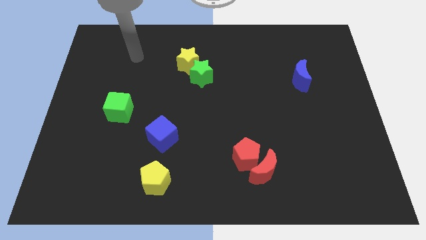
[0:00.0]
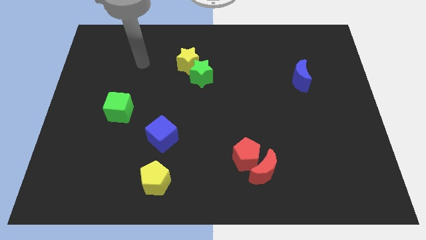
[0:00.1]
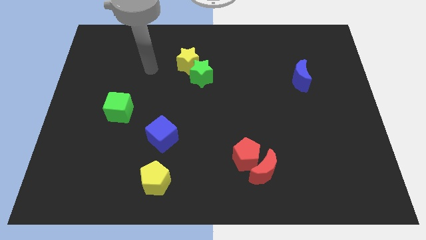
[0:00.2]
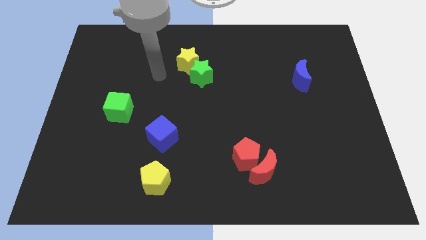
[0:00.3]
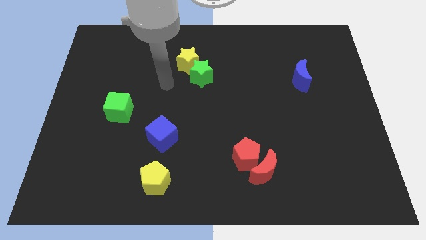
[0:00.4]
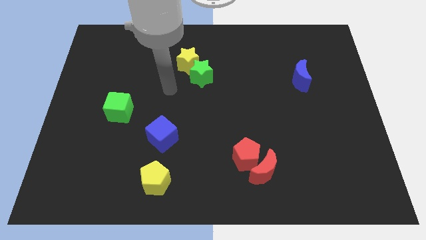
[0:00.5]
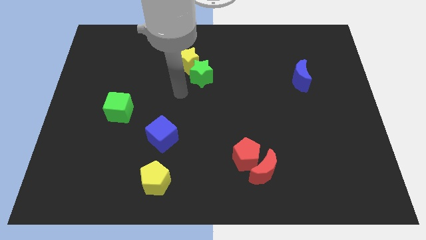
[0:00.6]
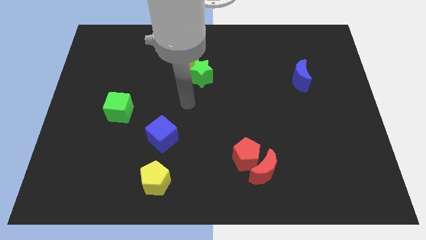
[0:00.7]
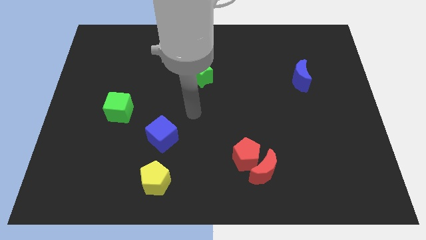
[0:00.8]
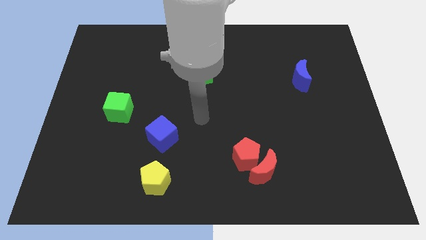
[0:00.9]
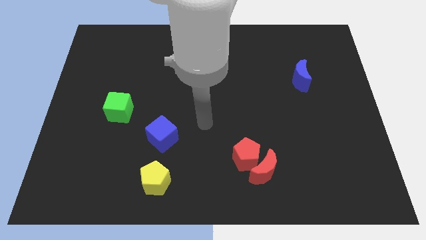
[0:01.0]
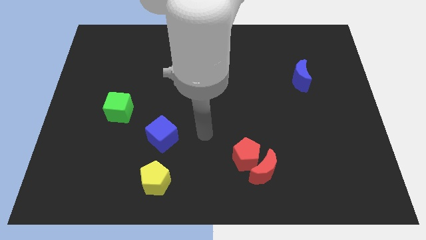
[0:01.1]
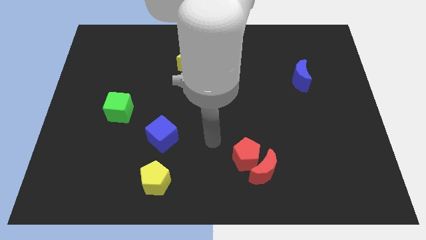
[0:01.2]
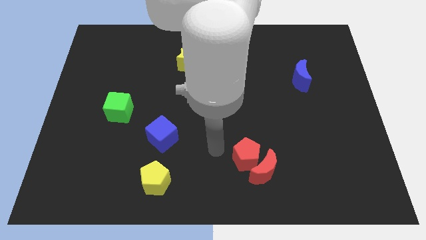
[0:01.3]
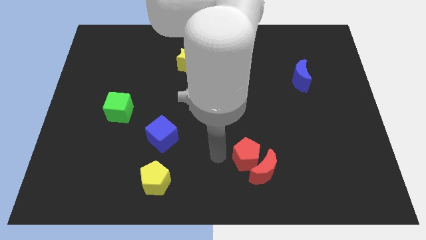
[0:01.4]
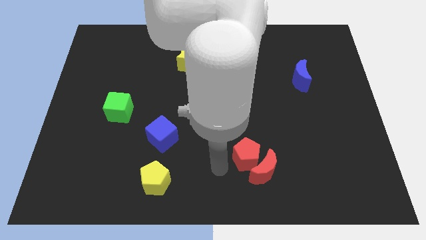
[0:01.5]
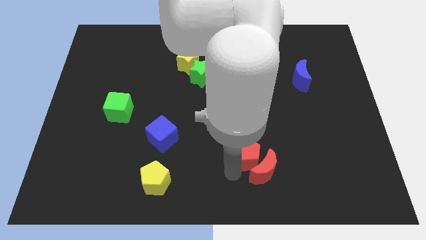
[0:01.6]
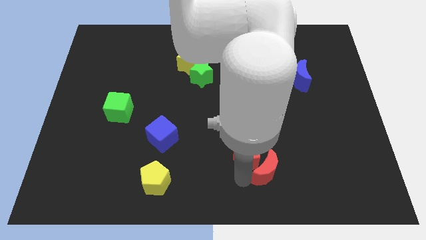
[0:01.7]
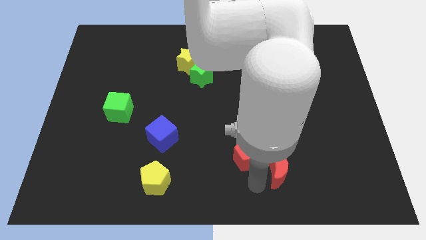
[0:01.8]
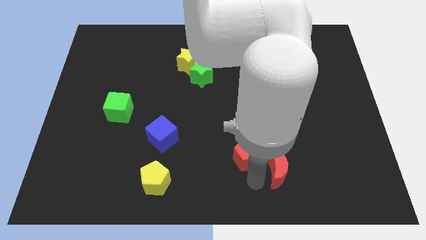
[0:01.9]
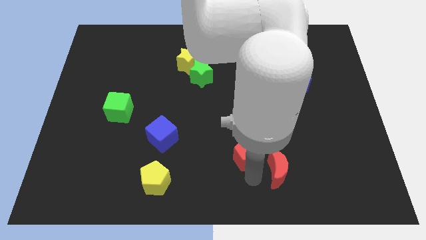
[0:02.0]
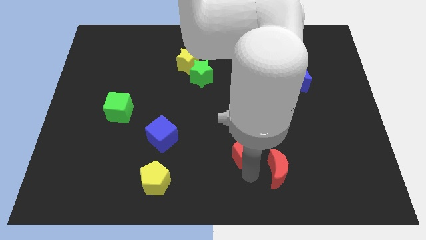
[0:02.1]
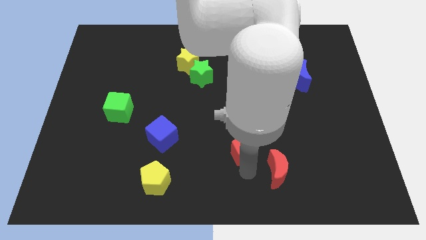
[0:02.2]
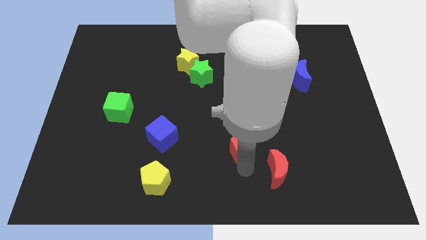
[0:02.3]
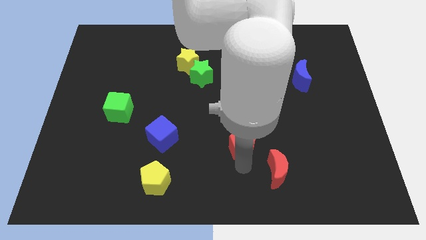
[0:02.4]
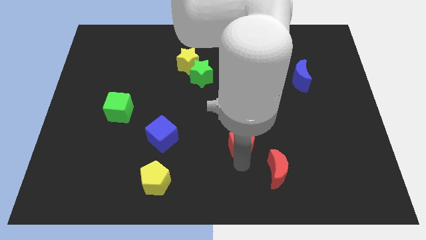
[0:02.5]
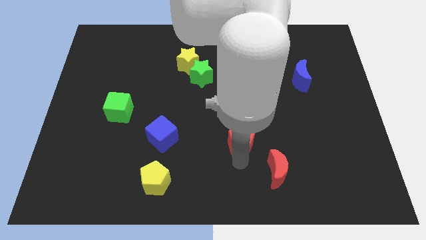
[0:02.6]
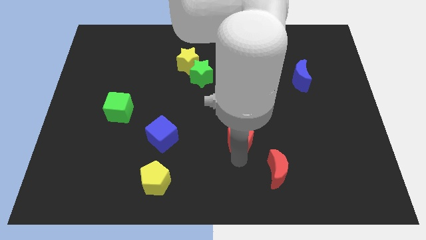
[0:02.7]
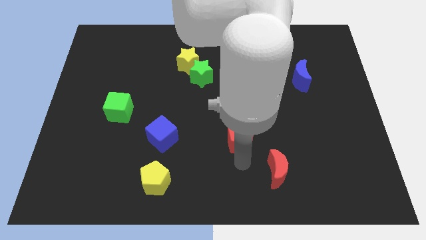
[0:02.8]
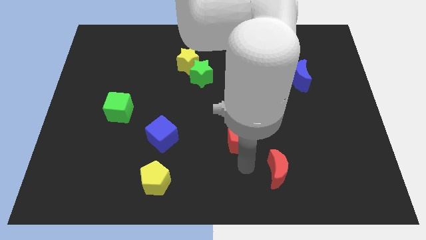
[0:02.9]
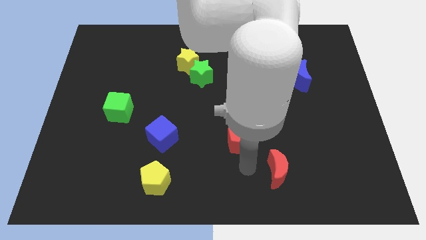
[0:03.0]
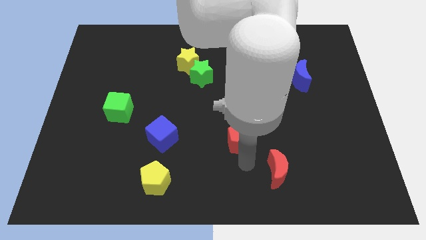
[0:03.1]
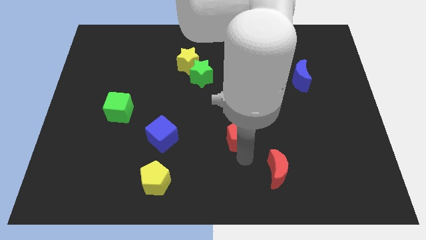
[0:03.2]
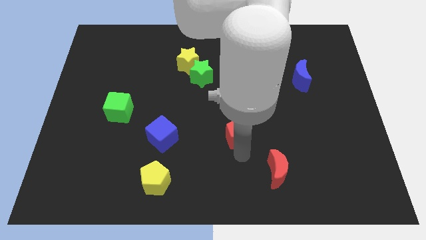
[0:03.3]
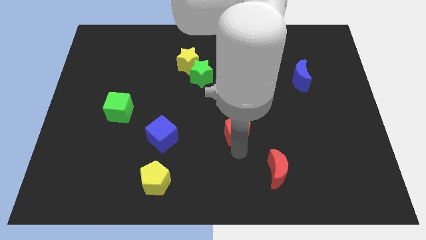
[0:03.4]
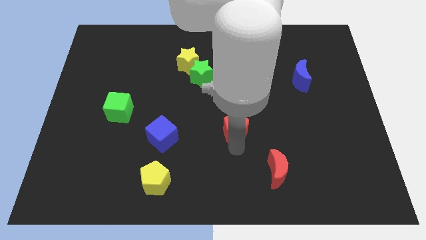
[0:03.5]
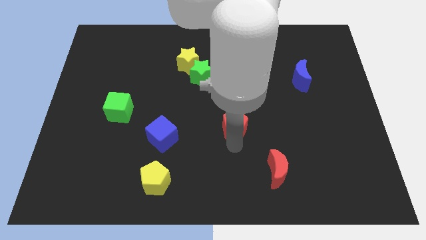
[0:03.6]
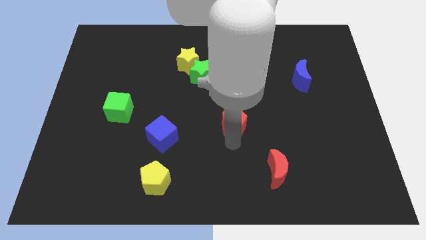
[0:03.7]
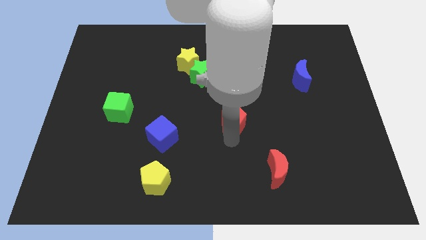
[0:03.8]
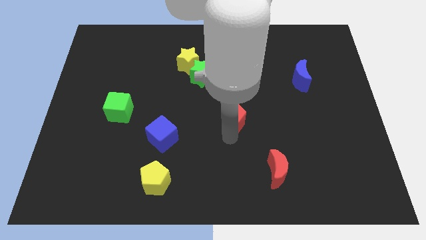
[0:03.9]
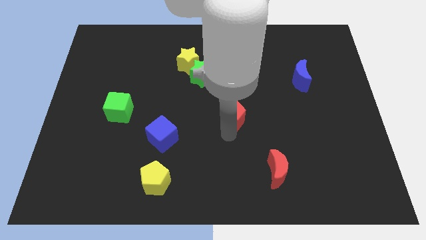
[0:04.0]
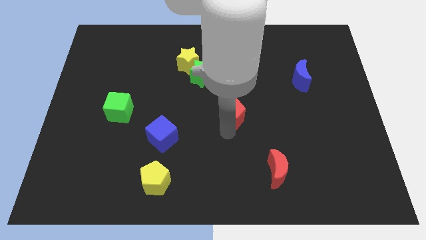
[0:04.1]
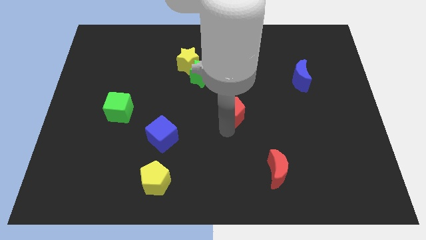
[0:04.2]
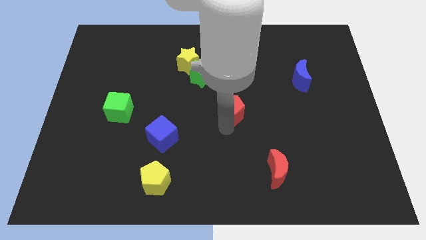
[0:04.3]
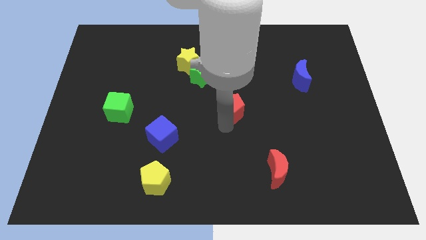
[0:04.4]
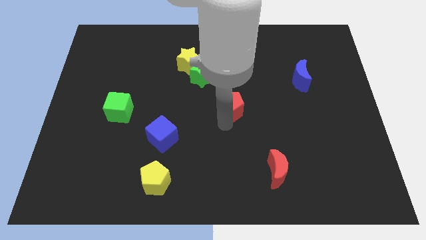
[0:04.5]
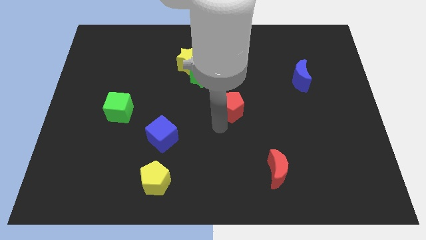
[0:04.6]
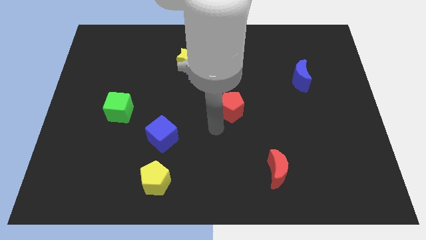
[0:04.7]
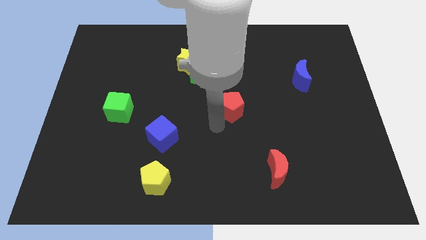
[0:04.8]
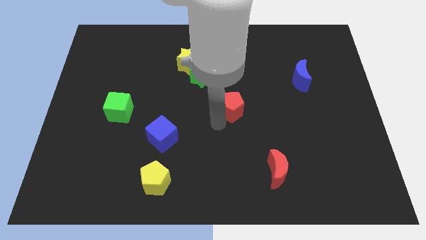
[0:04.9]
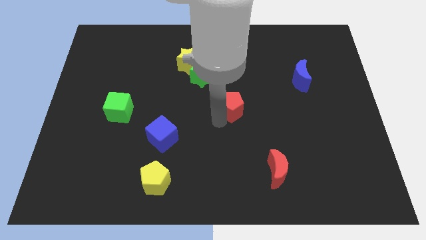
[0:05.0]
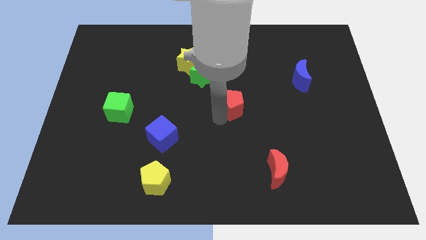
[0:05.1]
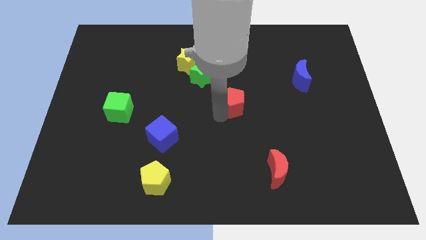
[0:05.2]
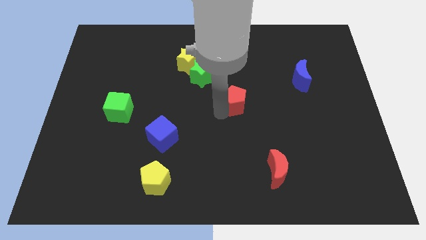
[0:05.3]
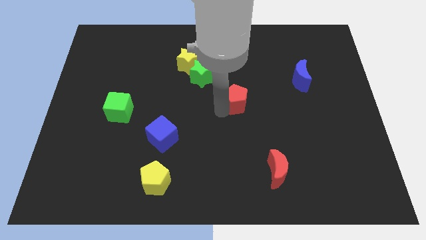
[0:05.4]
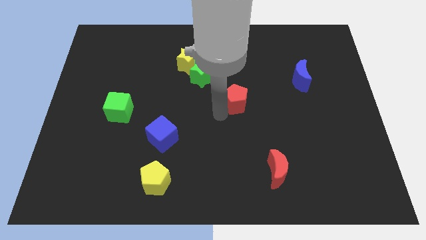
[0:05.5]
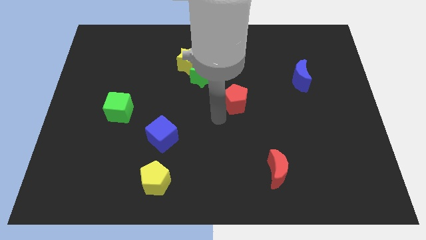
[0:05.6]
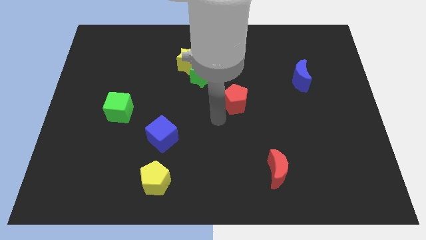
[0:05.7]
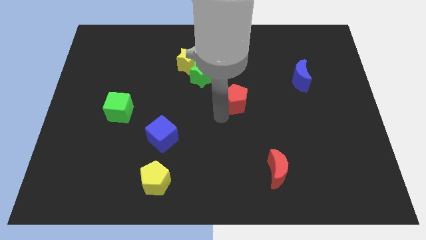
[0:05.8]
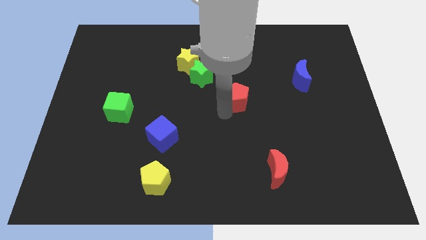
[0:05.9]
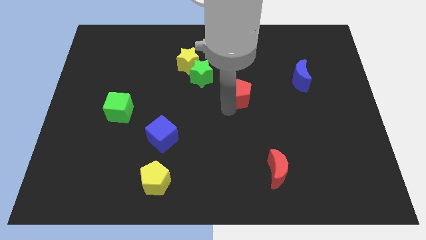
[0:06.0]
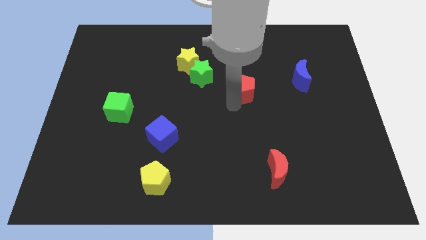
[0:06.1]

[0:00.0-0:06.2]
put the red pentagon just right of the green star

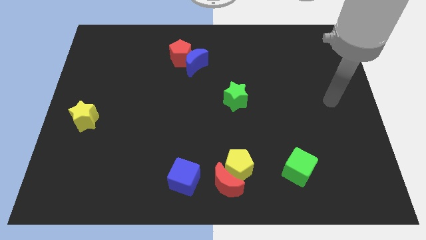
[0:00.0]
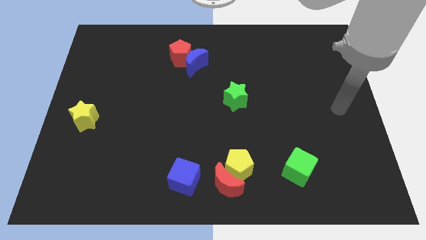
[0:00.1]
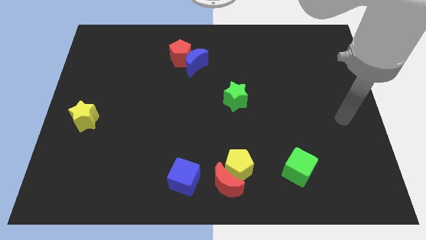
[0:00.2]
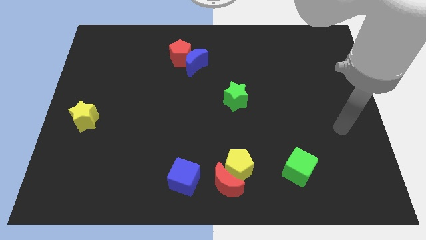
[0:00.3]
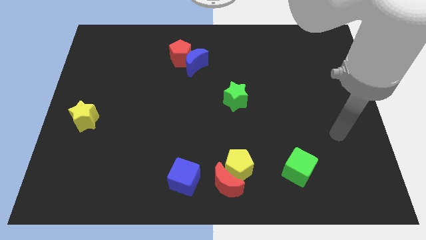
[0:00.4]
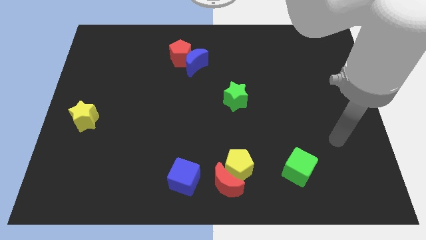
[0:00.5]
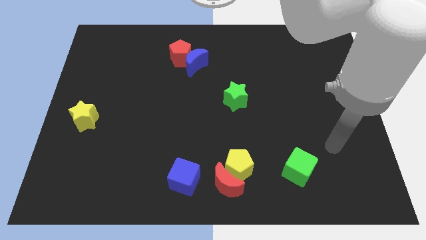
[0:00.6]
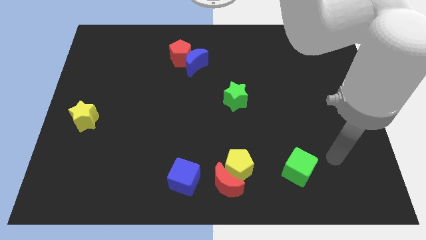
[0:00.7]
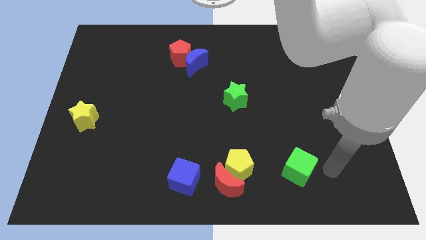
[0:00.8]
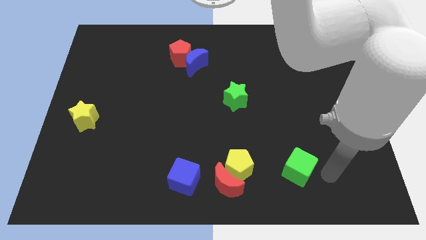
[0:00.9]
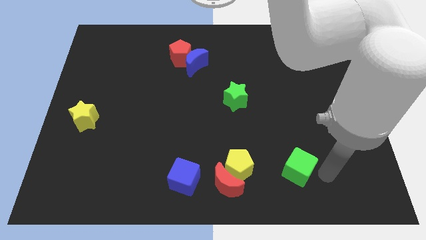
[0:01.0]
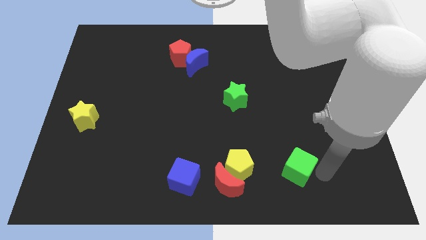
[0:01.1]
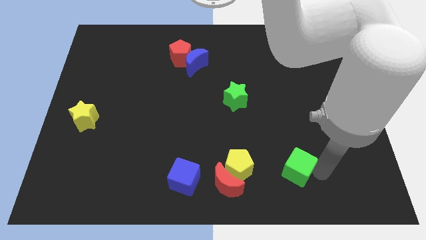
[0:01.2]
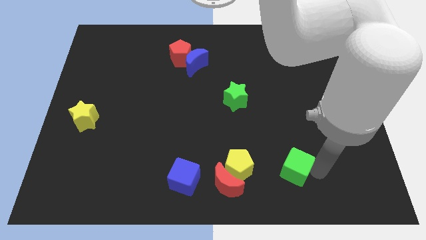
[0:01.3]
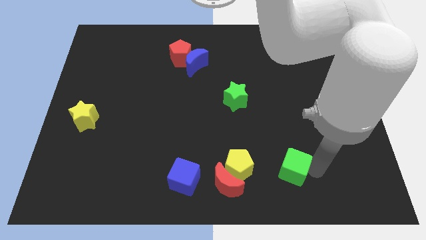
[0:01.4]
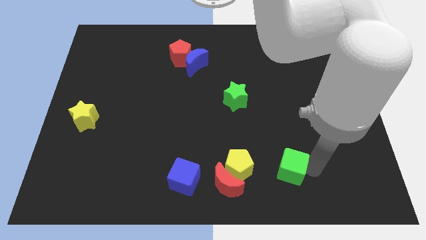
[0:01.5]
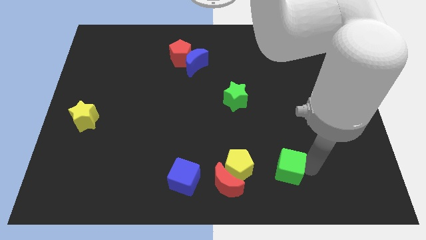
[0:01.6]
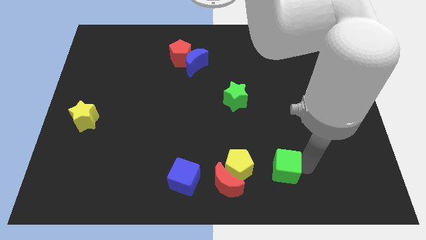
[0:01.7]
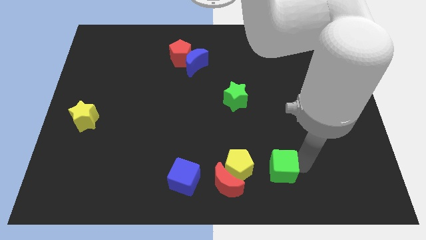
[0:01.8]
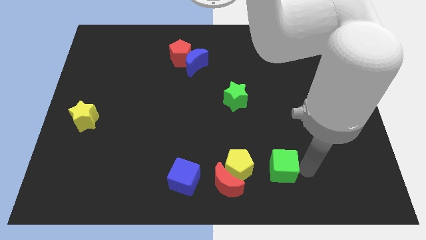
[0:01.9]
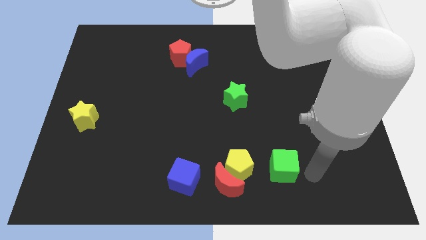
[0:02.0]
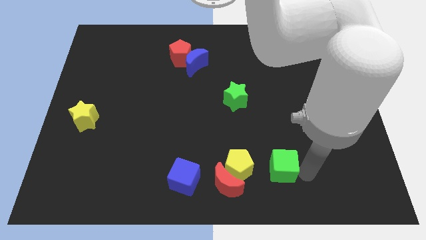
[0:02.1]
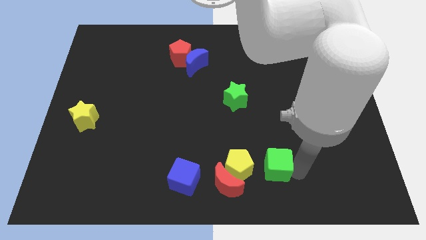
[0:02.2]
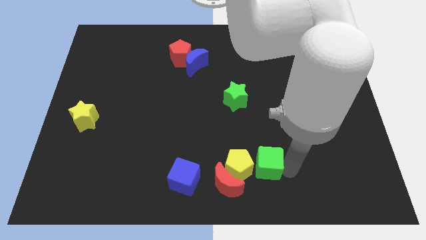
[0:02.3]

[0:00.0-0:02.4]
push the green cube to the top right side of the red moon
